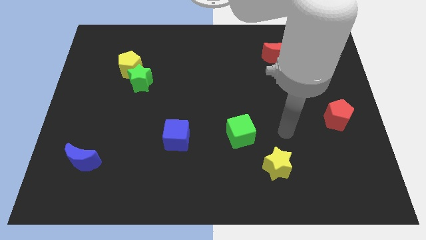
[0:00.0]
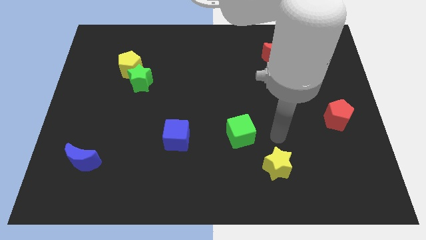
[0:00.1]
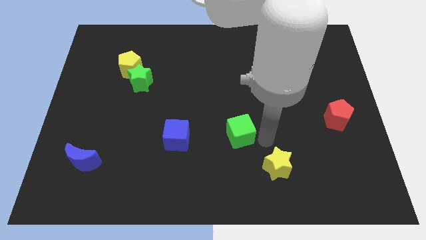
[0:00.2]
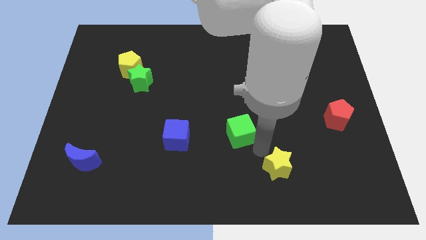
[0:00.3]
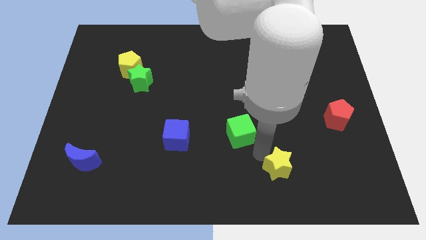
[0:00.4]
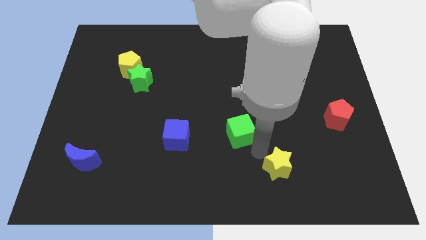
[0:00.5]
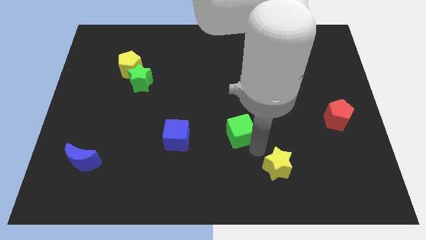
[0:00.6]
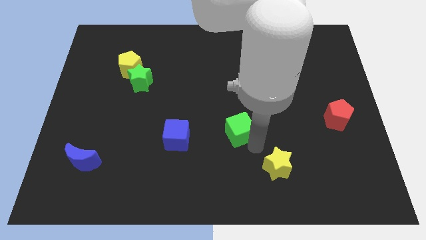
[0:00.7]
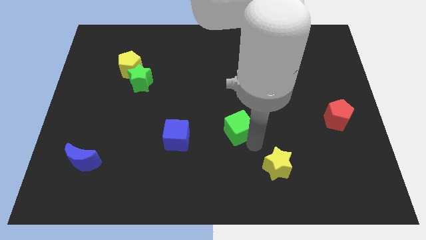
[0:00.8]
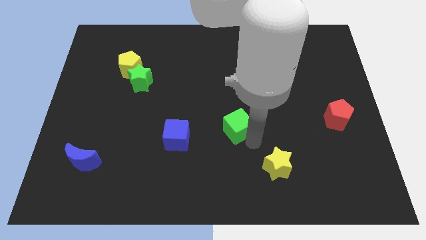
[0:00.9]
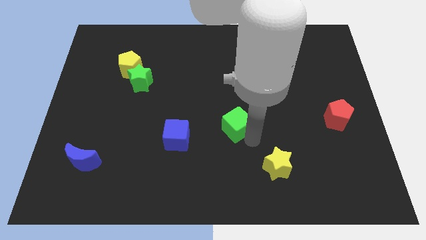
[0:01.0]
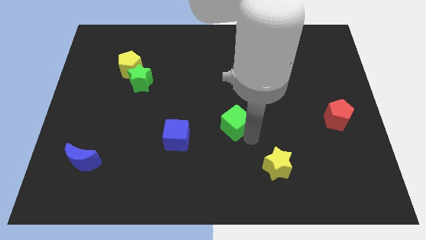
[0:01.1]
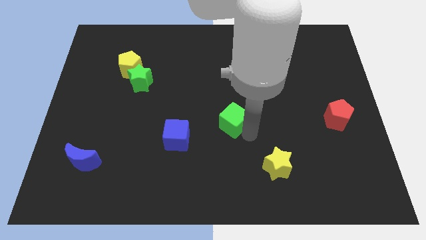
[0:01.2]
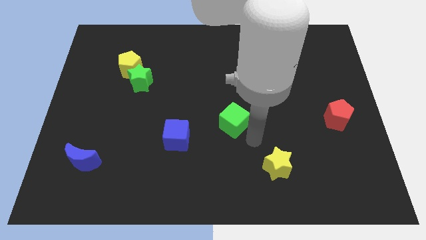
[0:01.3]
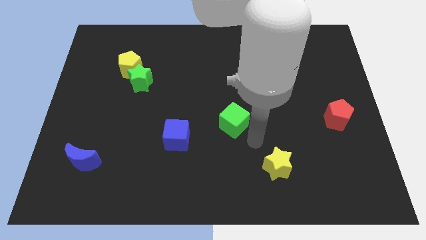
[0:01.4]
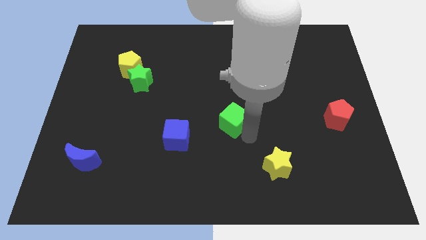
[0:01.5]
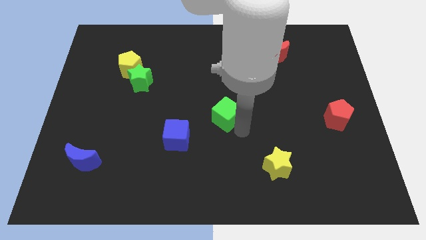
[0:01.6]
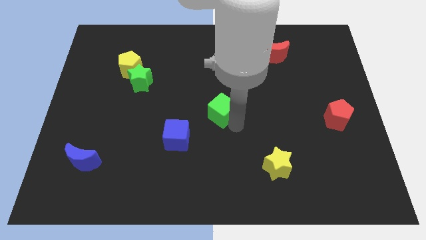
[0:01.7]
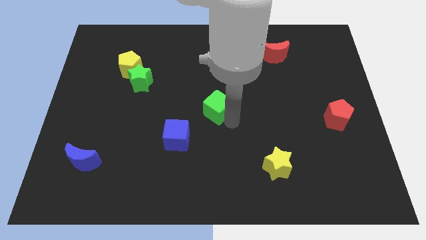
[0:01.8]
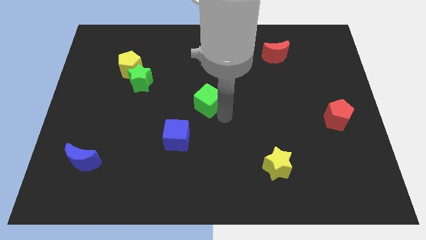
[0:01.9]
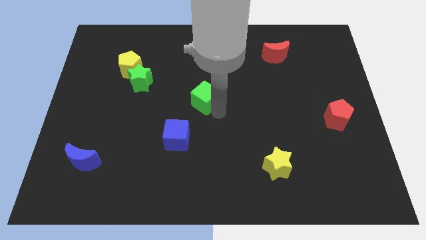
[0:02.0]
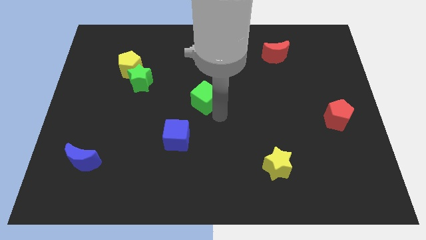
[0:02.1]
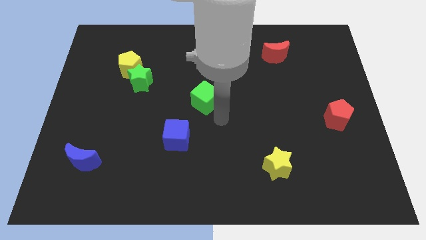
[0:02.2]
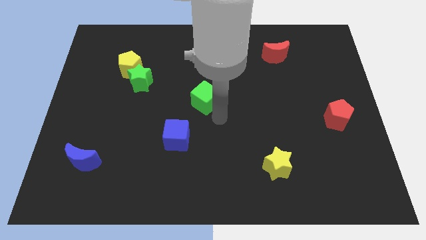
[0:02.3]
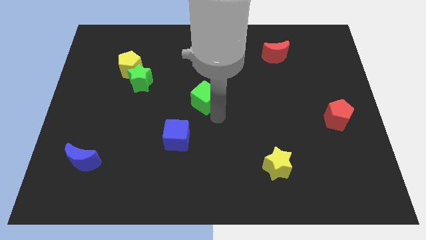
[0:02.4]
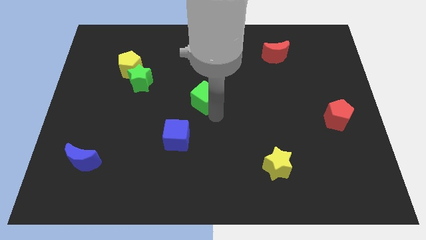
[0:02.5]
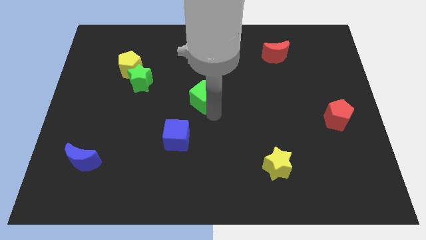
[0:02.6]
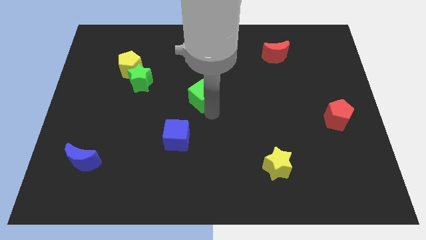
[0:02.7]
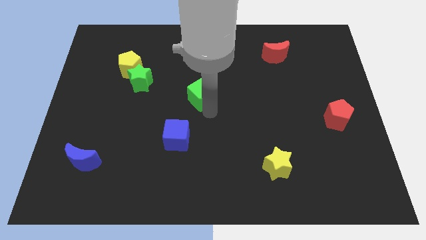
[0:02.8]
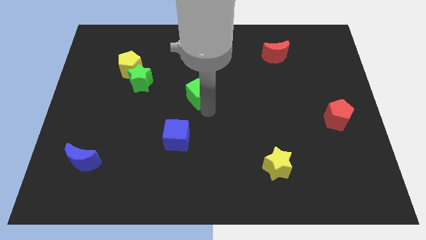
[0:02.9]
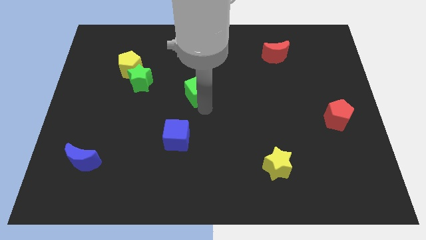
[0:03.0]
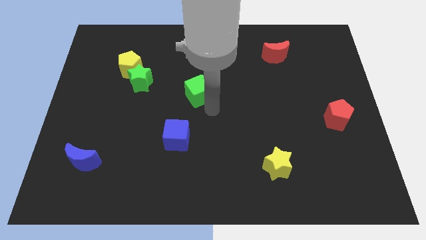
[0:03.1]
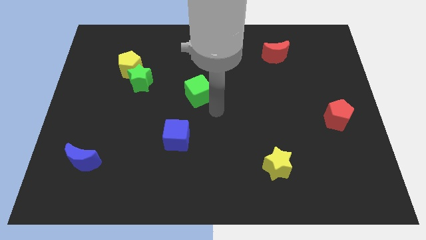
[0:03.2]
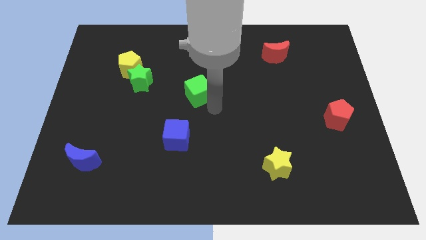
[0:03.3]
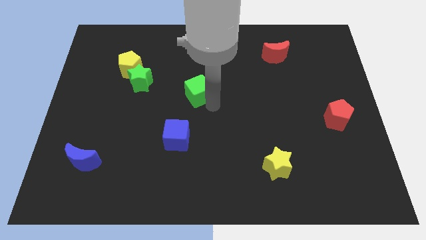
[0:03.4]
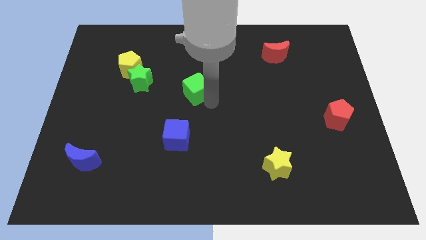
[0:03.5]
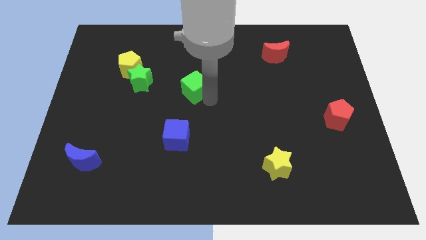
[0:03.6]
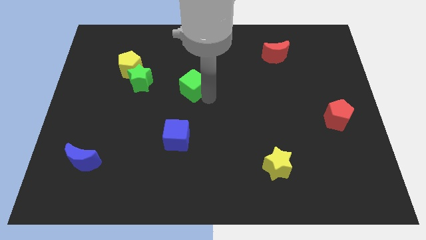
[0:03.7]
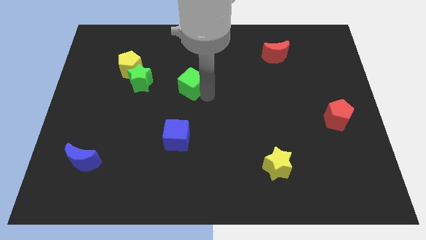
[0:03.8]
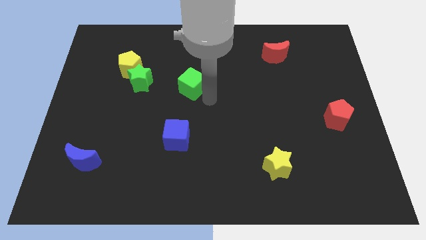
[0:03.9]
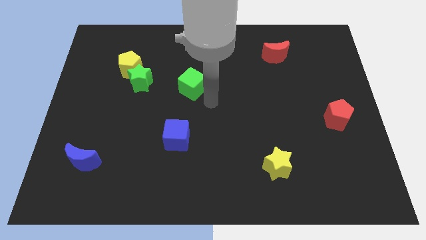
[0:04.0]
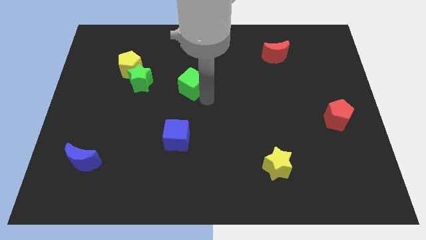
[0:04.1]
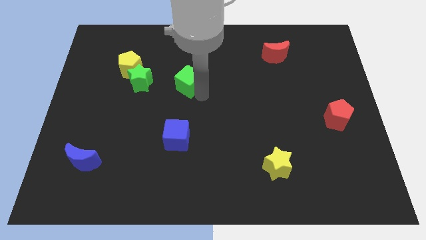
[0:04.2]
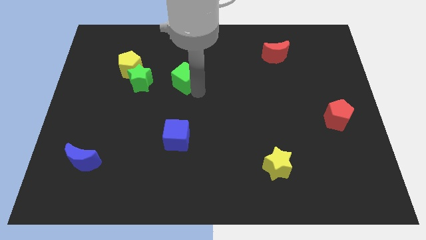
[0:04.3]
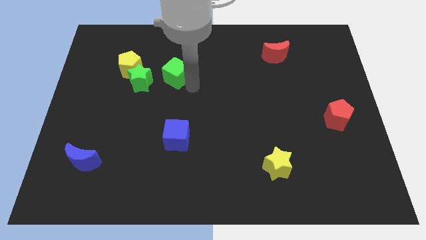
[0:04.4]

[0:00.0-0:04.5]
slide the green cube to the top right of the green star

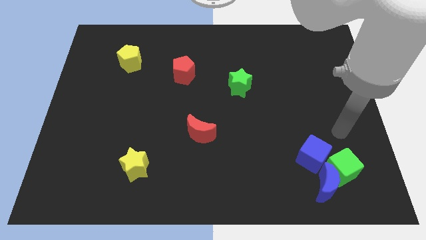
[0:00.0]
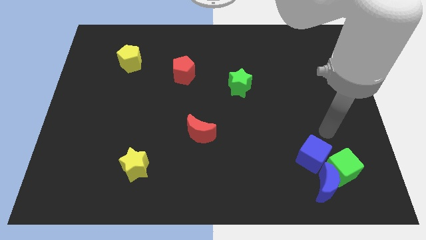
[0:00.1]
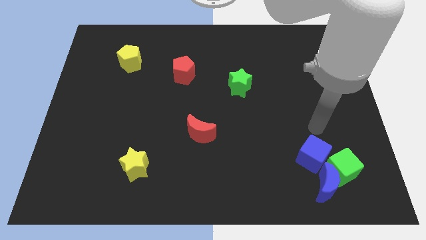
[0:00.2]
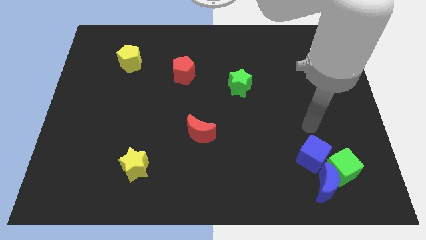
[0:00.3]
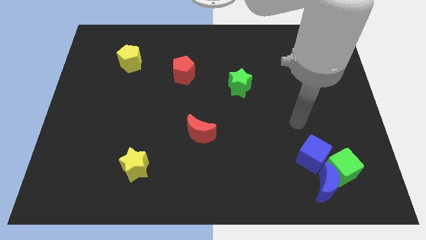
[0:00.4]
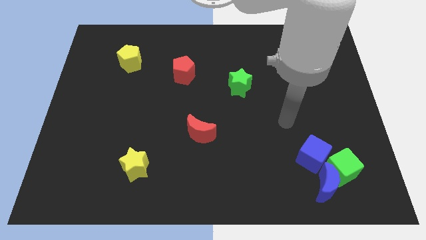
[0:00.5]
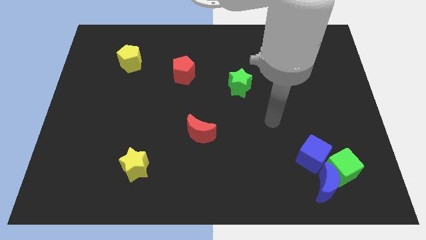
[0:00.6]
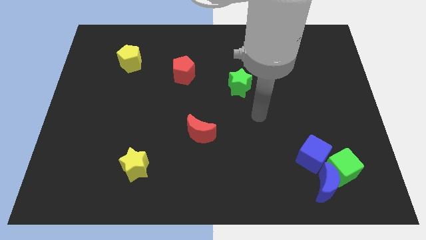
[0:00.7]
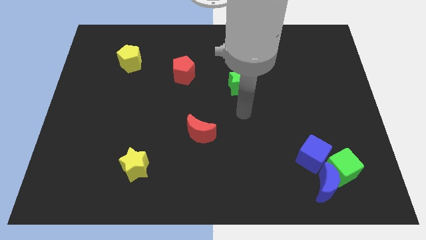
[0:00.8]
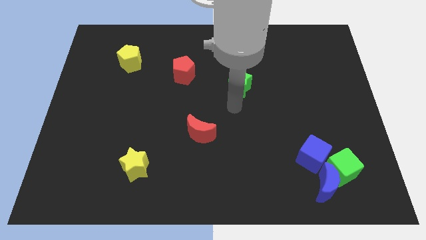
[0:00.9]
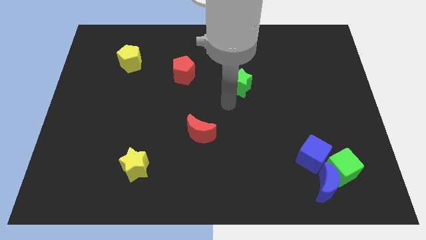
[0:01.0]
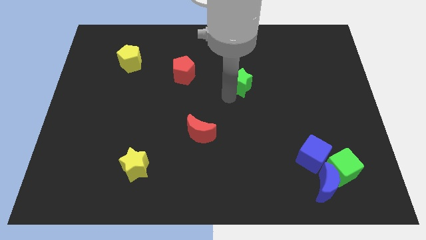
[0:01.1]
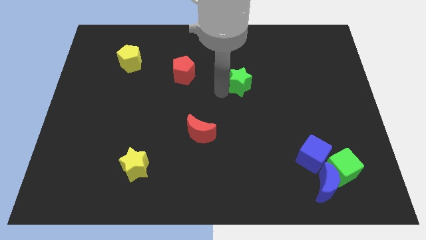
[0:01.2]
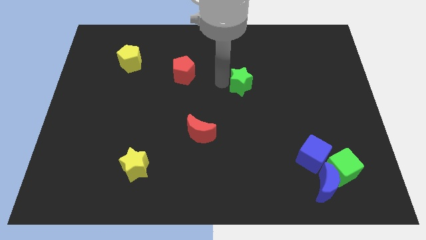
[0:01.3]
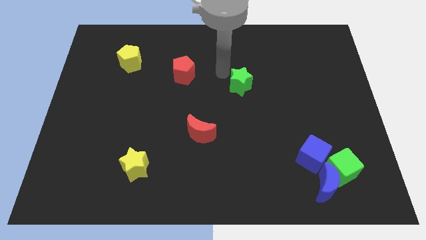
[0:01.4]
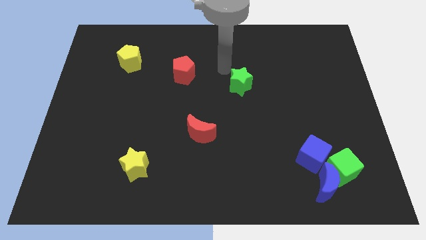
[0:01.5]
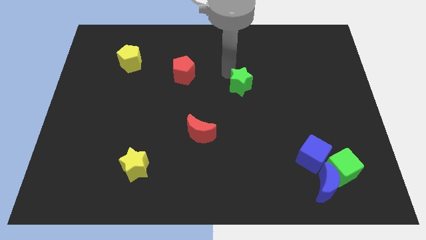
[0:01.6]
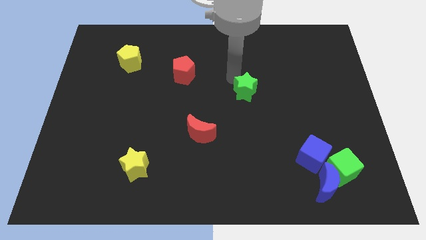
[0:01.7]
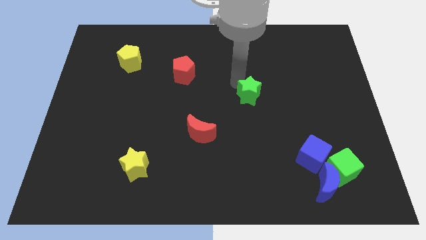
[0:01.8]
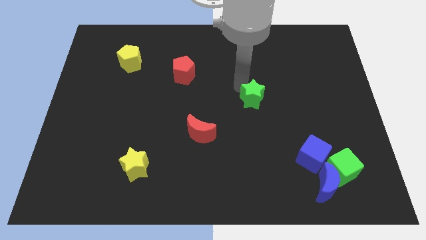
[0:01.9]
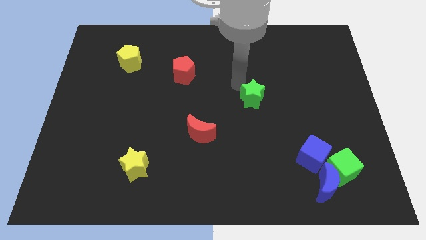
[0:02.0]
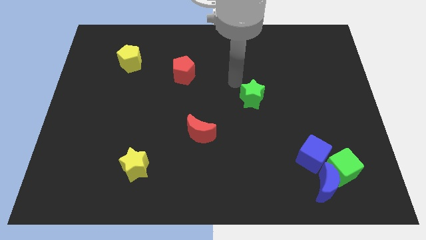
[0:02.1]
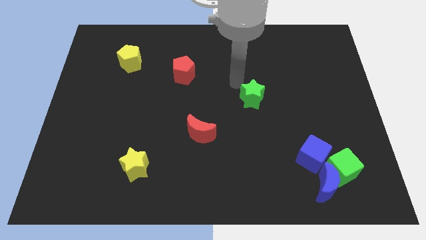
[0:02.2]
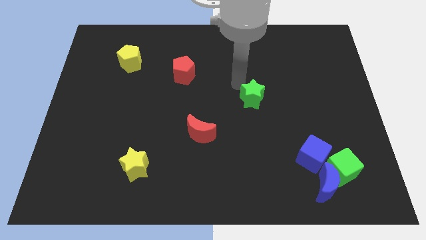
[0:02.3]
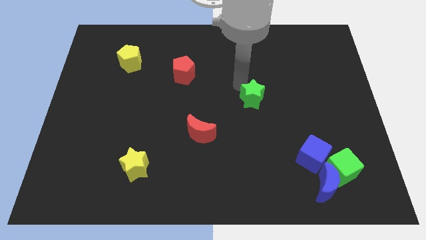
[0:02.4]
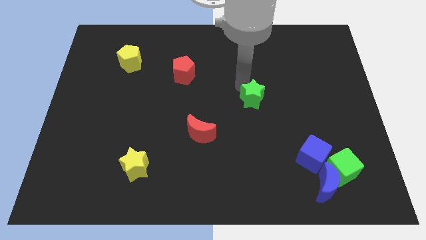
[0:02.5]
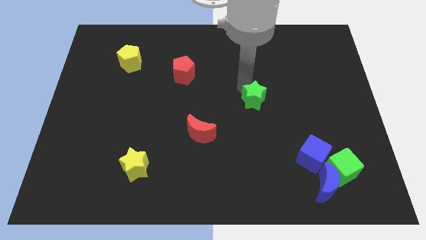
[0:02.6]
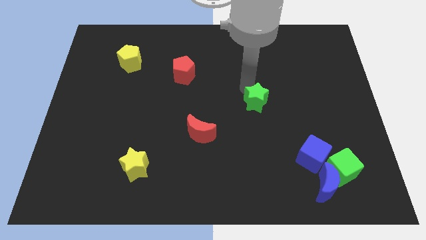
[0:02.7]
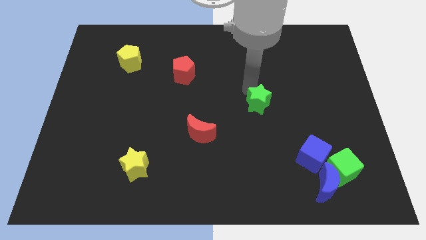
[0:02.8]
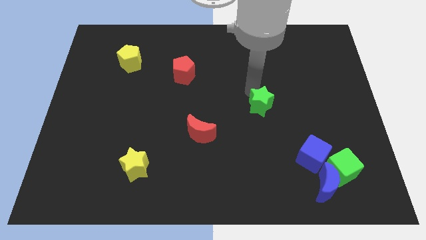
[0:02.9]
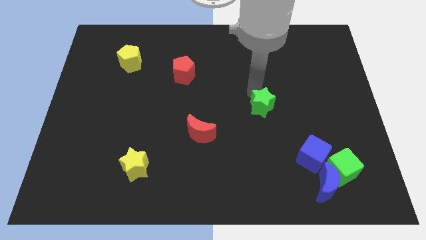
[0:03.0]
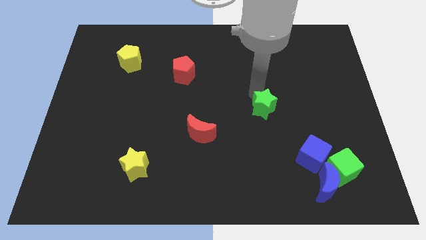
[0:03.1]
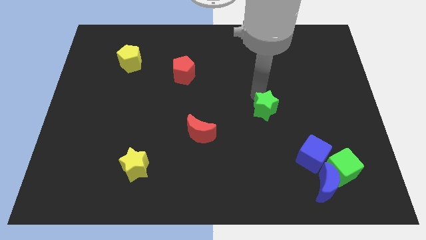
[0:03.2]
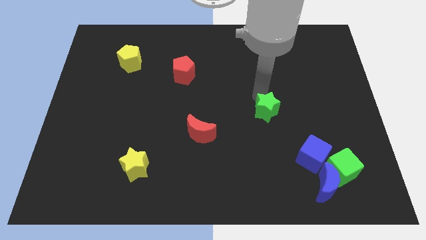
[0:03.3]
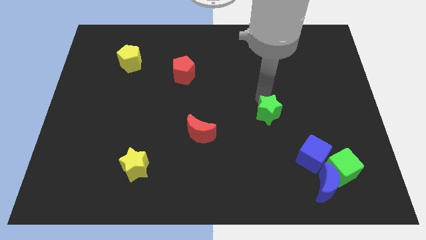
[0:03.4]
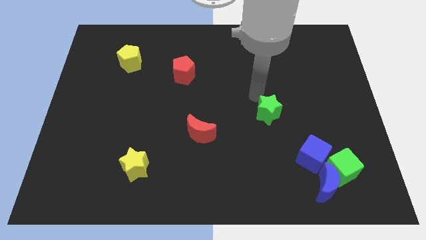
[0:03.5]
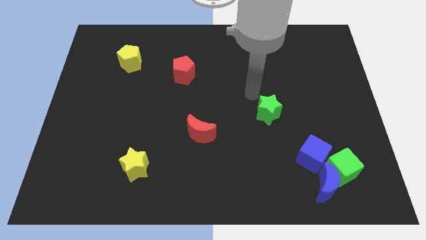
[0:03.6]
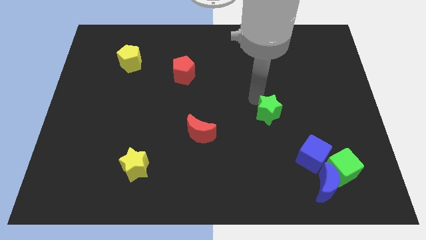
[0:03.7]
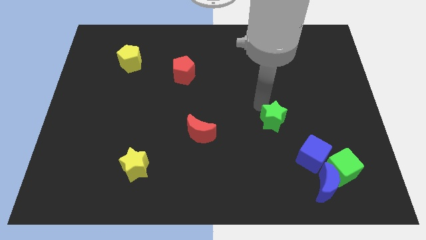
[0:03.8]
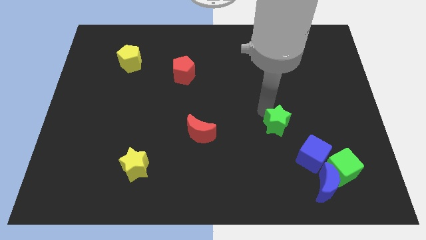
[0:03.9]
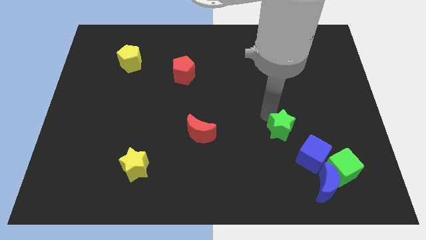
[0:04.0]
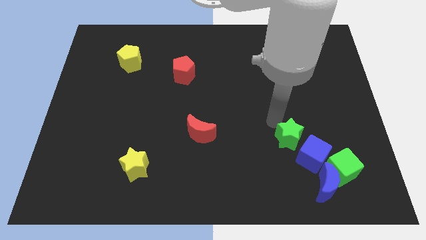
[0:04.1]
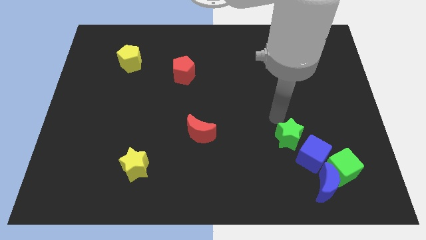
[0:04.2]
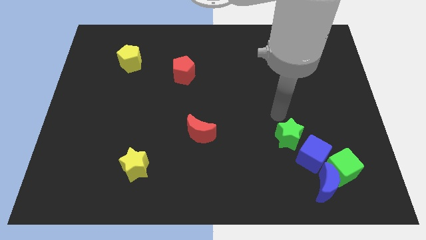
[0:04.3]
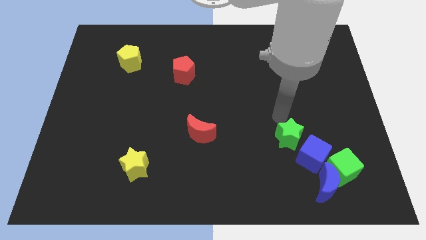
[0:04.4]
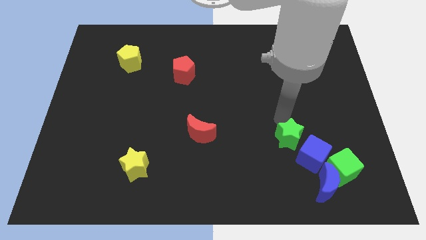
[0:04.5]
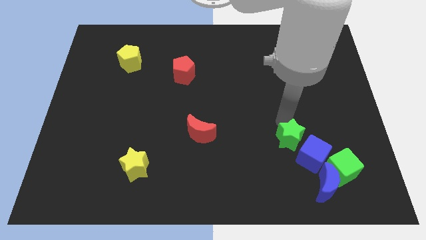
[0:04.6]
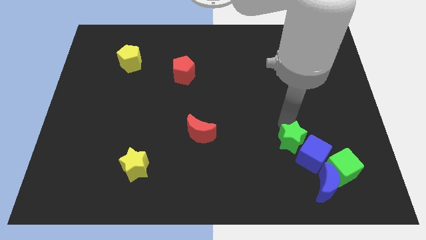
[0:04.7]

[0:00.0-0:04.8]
push the green star to the top left of the blue moon
